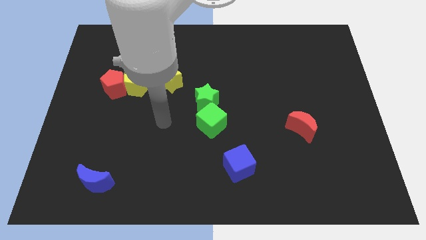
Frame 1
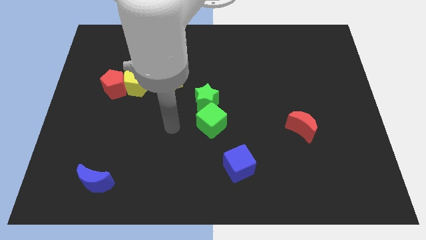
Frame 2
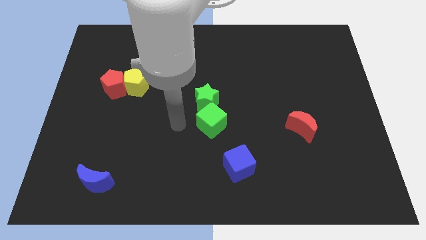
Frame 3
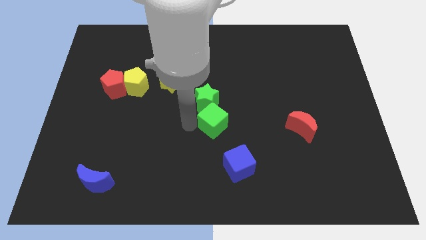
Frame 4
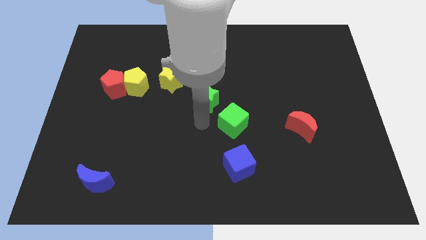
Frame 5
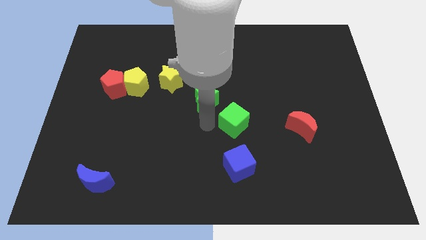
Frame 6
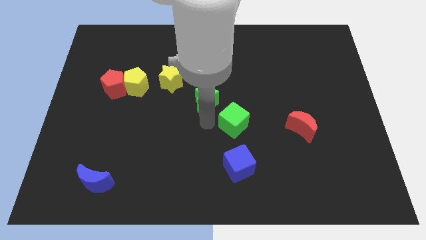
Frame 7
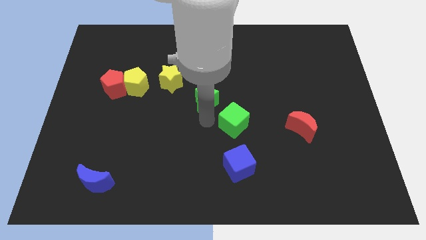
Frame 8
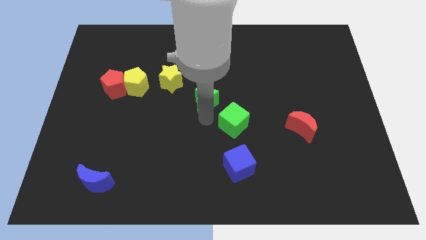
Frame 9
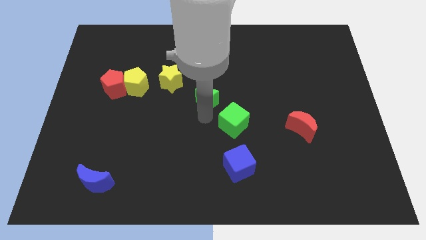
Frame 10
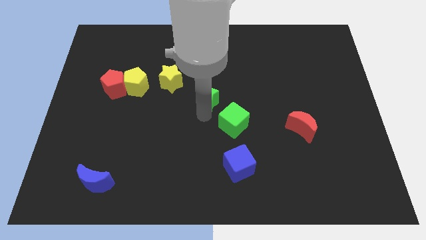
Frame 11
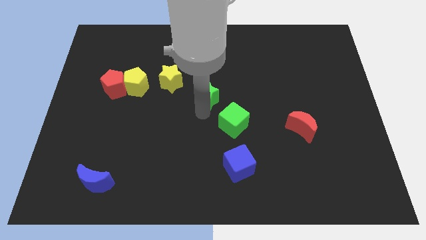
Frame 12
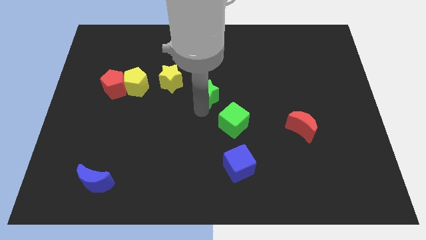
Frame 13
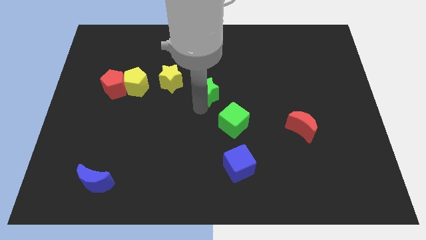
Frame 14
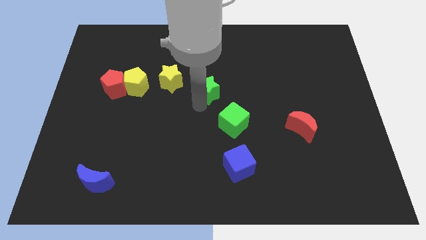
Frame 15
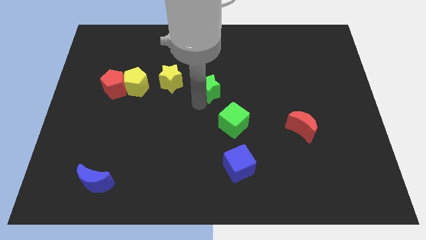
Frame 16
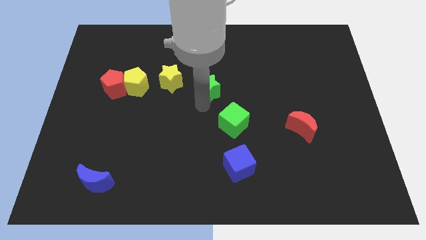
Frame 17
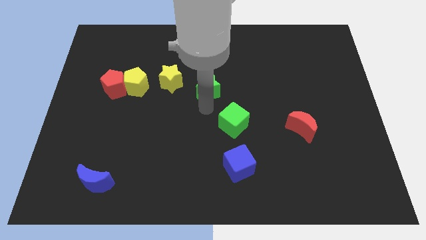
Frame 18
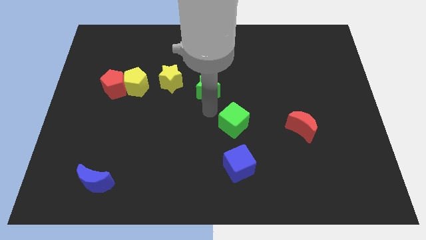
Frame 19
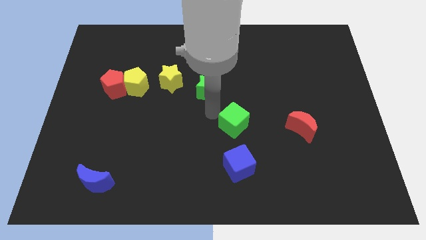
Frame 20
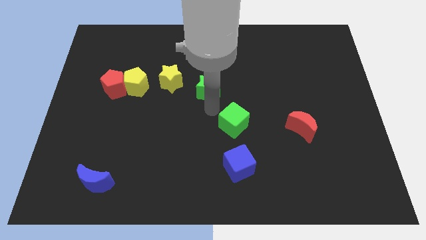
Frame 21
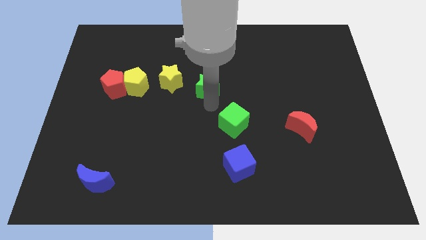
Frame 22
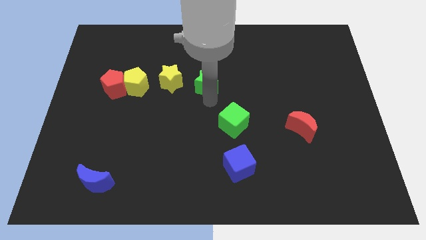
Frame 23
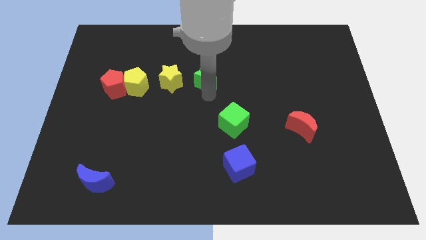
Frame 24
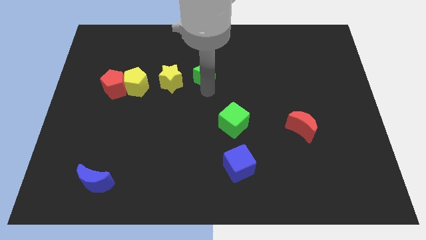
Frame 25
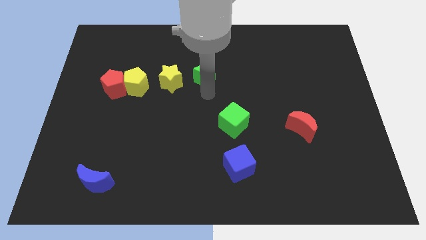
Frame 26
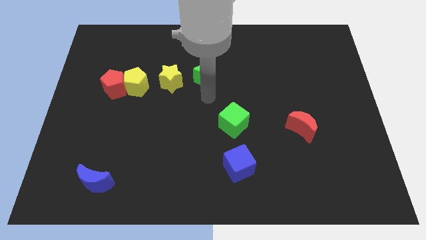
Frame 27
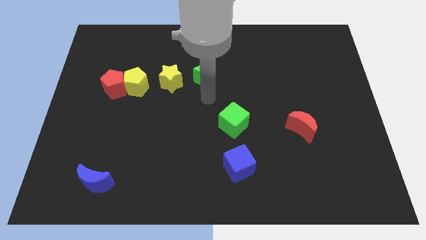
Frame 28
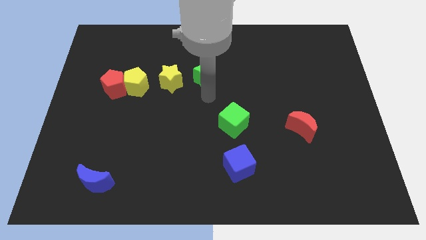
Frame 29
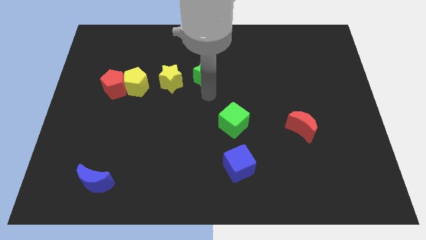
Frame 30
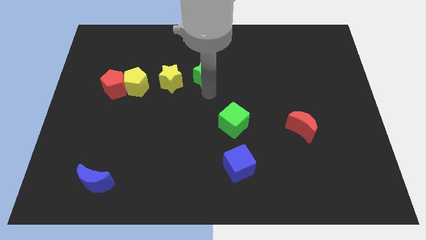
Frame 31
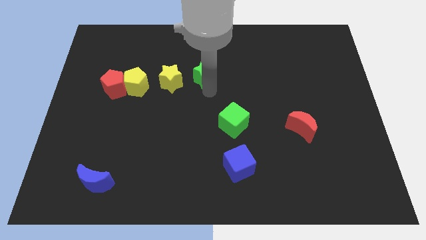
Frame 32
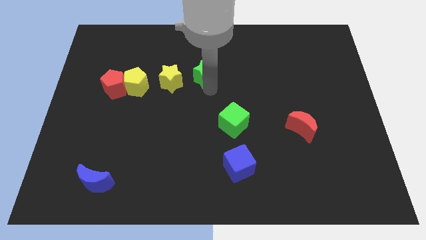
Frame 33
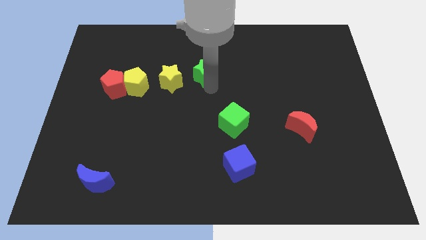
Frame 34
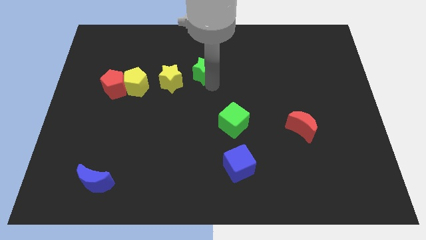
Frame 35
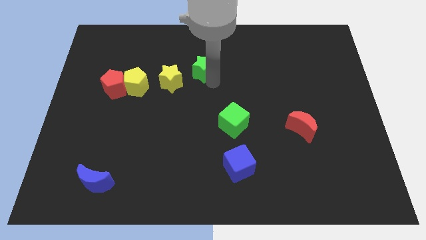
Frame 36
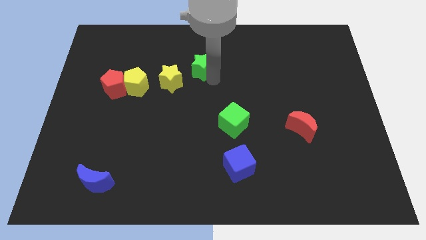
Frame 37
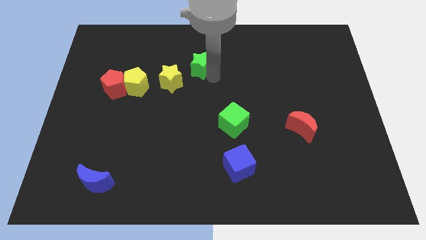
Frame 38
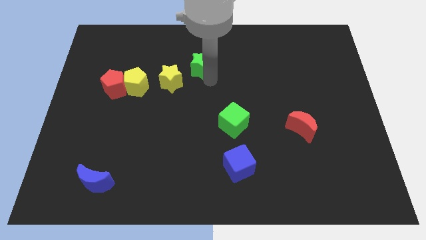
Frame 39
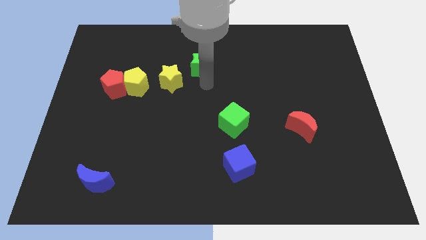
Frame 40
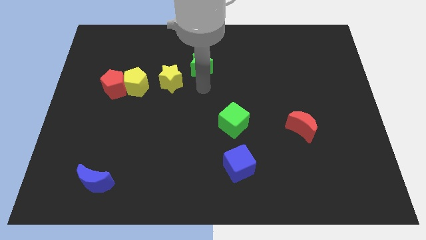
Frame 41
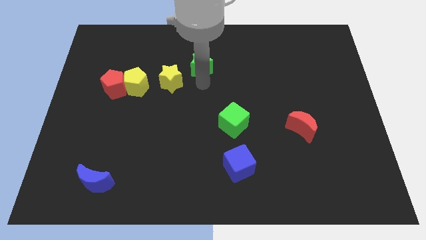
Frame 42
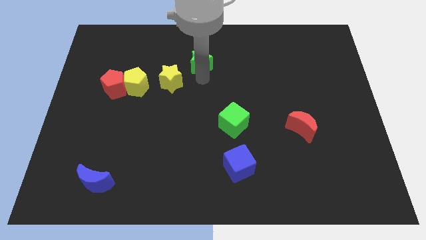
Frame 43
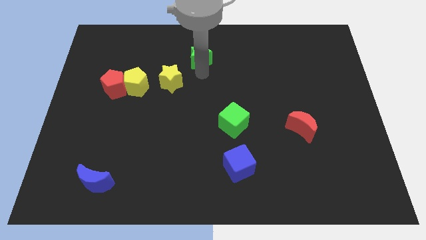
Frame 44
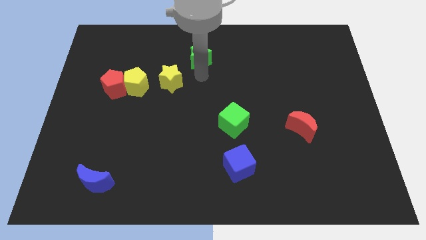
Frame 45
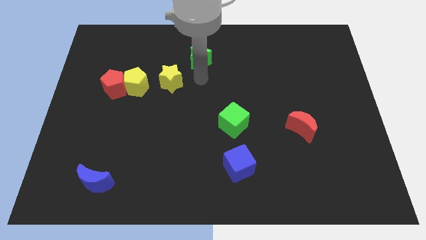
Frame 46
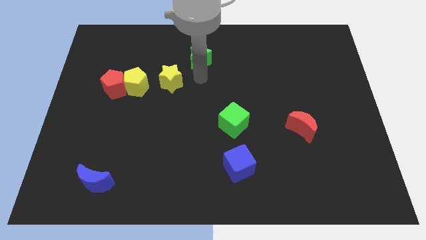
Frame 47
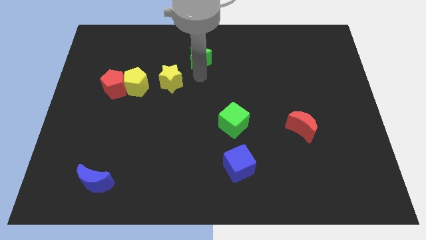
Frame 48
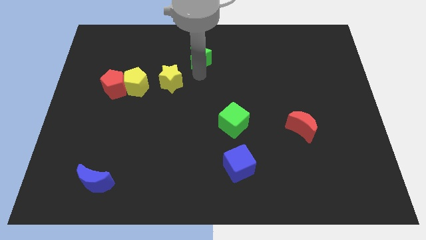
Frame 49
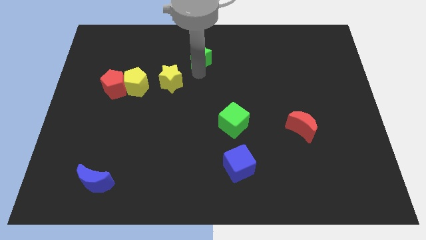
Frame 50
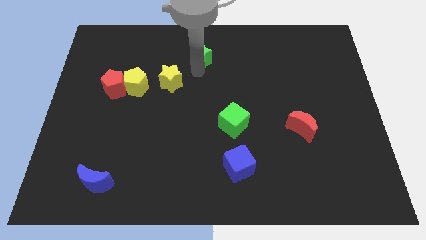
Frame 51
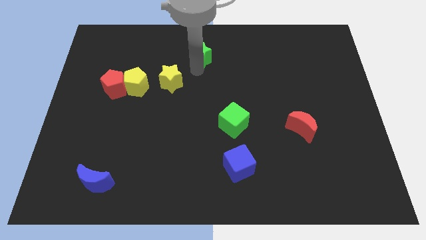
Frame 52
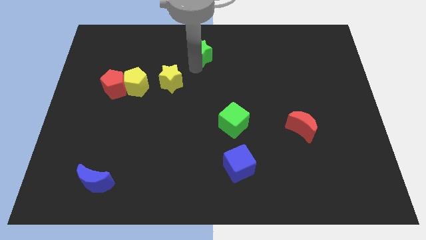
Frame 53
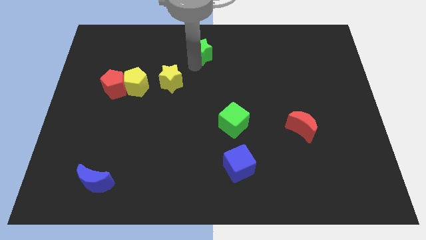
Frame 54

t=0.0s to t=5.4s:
slide the green star to the top

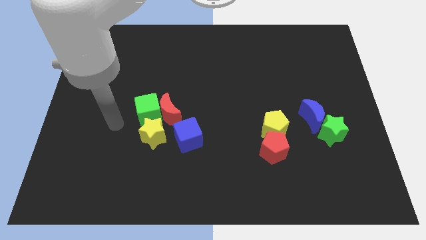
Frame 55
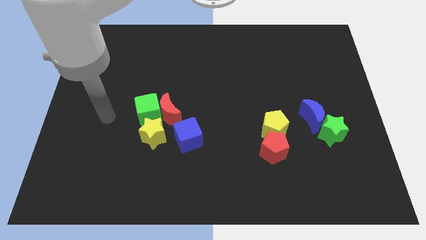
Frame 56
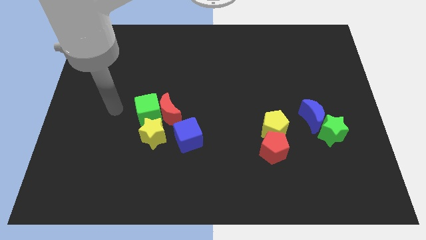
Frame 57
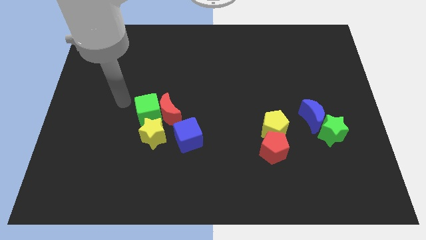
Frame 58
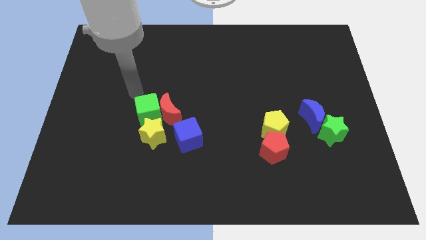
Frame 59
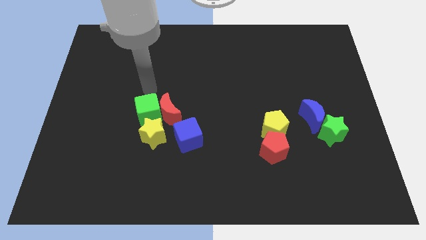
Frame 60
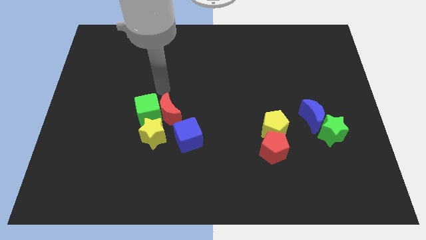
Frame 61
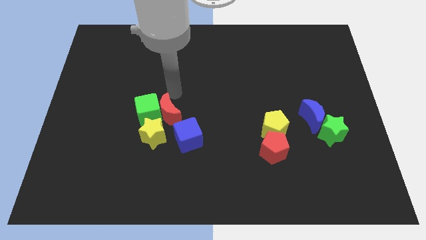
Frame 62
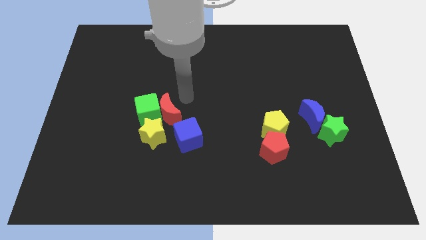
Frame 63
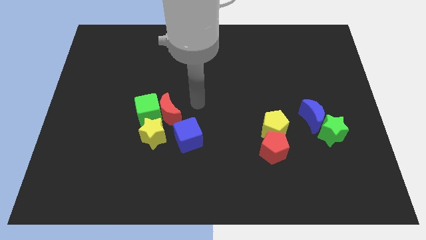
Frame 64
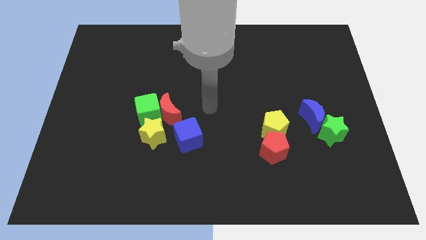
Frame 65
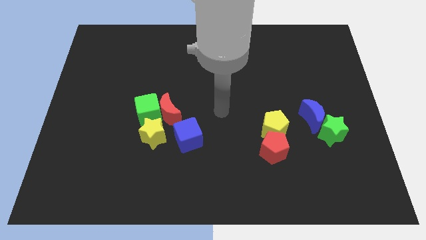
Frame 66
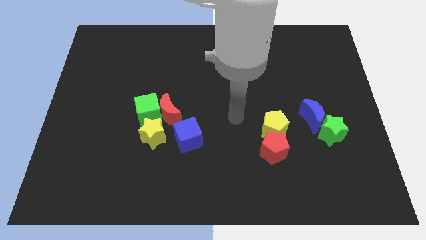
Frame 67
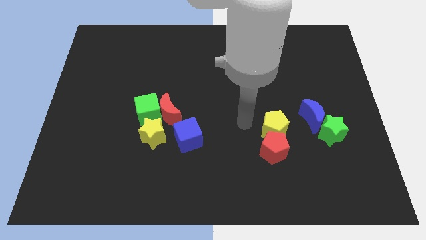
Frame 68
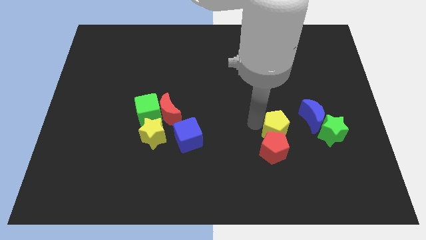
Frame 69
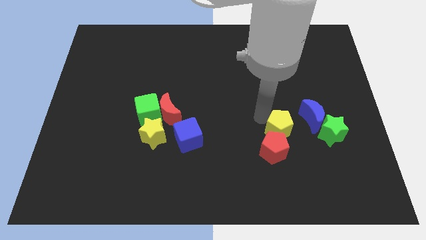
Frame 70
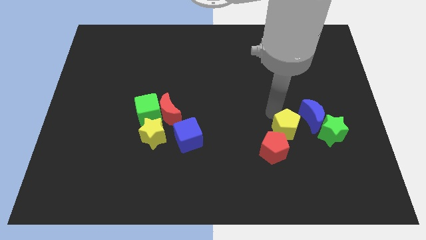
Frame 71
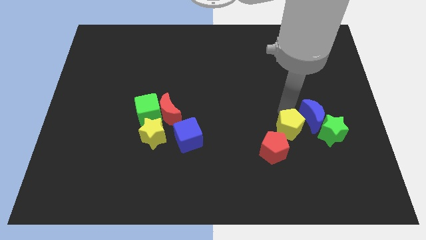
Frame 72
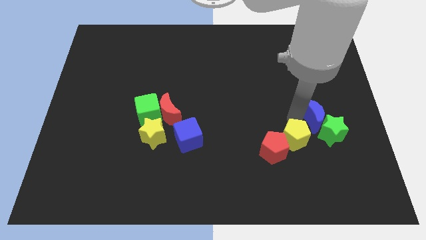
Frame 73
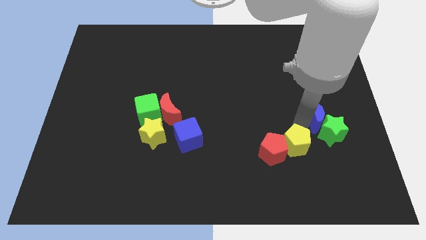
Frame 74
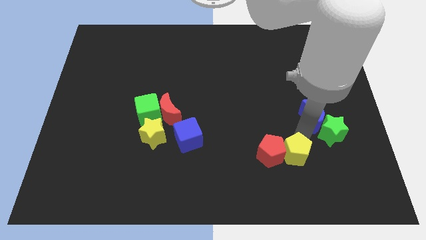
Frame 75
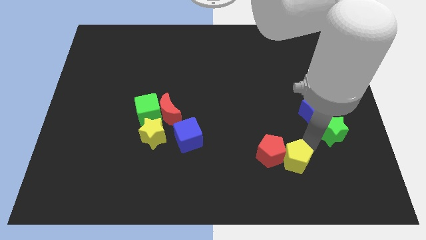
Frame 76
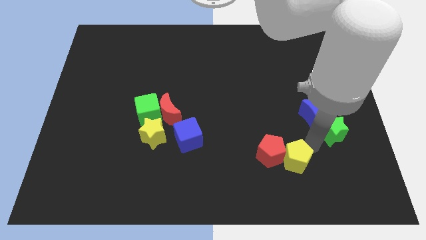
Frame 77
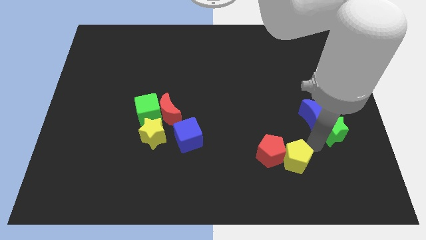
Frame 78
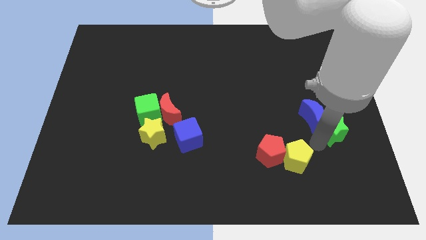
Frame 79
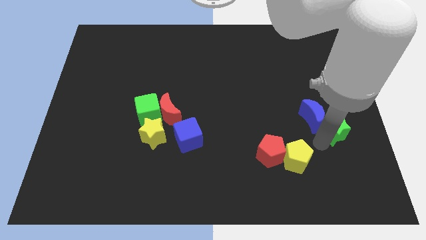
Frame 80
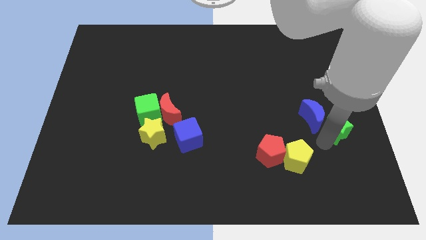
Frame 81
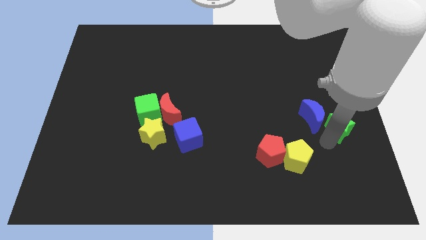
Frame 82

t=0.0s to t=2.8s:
put the green star to the center right
